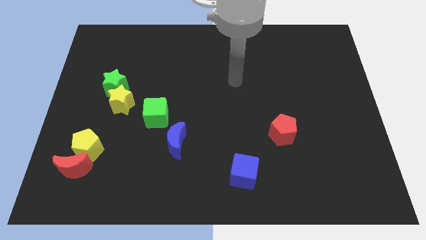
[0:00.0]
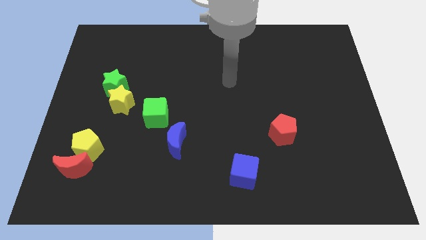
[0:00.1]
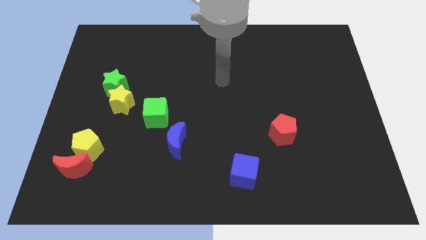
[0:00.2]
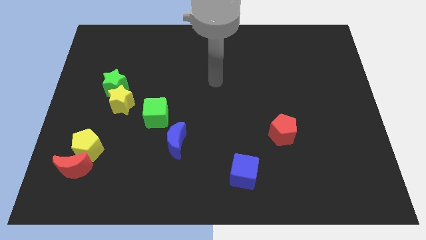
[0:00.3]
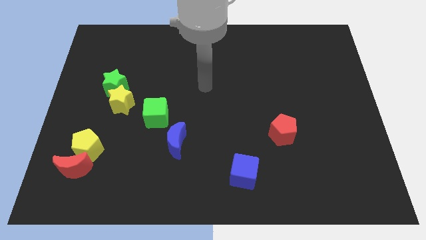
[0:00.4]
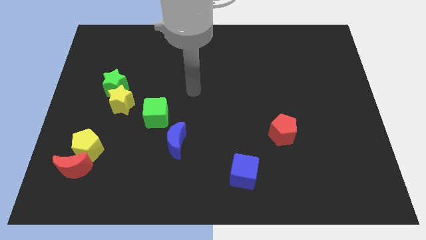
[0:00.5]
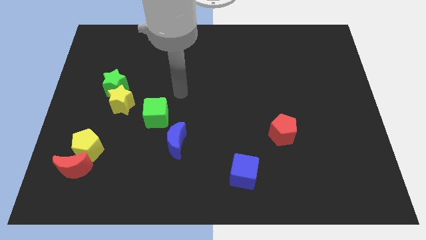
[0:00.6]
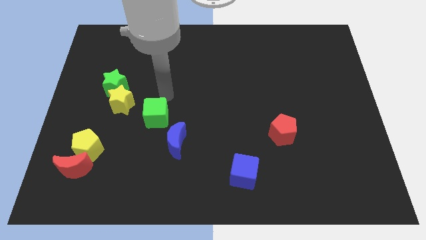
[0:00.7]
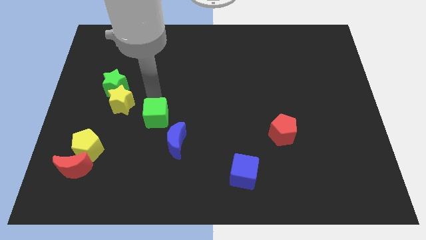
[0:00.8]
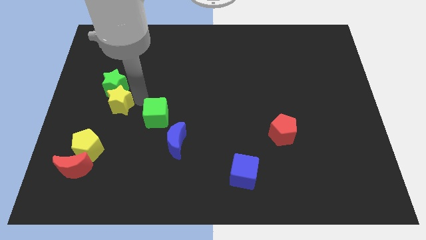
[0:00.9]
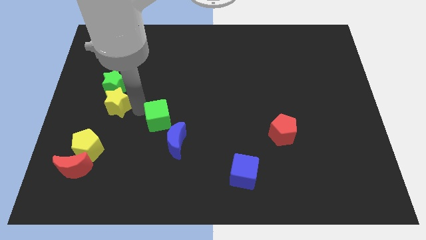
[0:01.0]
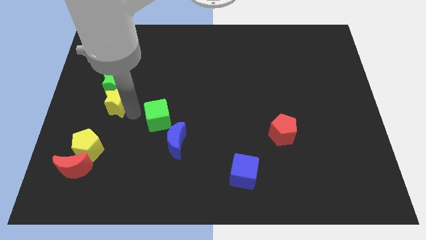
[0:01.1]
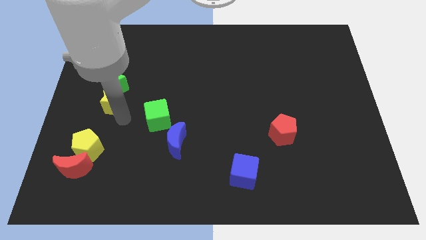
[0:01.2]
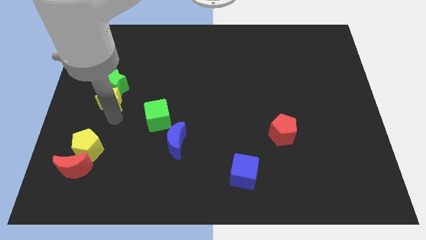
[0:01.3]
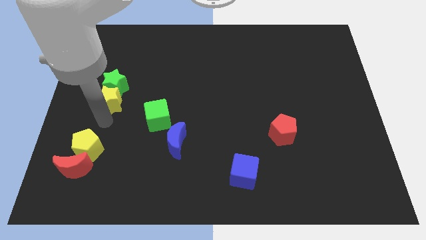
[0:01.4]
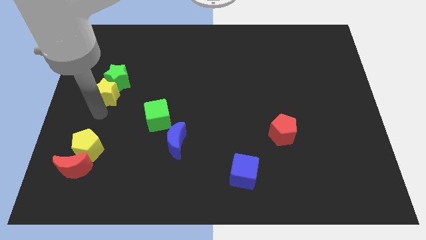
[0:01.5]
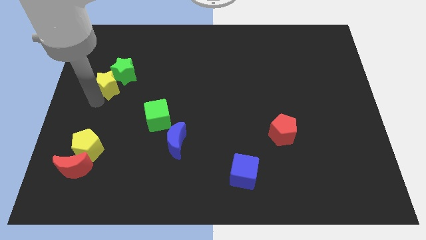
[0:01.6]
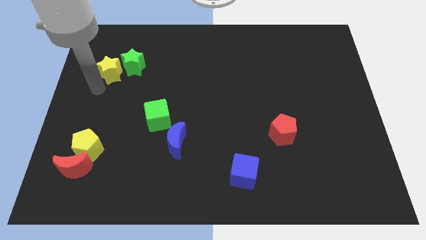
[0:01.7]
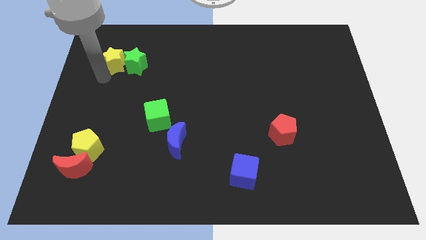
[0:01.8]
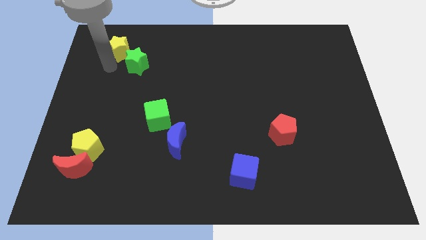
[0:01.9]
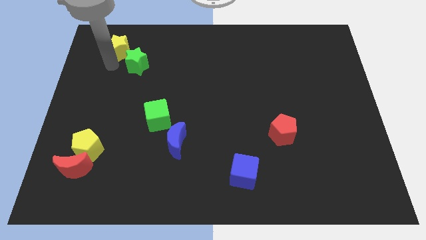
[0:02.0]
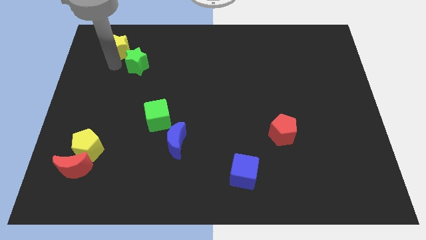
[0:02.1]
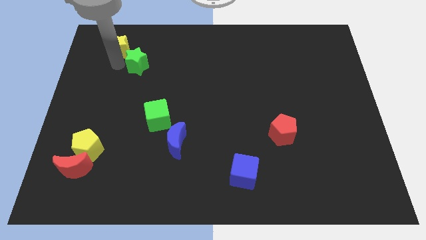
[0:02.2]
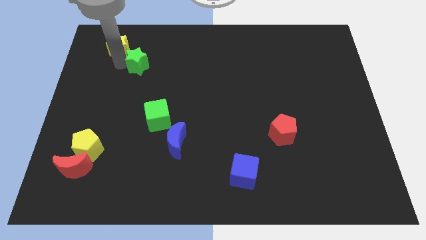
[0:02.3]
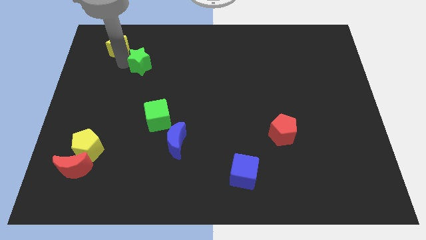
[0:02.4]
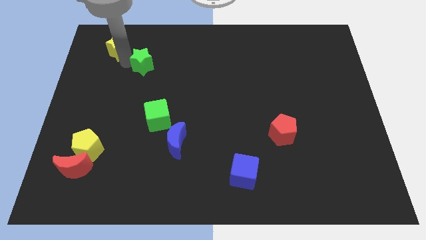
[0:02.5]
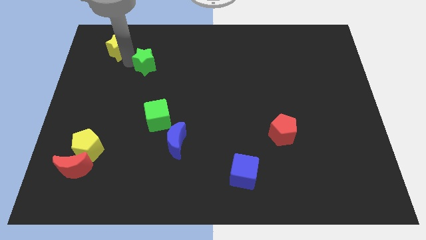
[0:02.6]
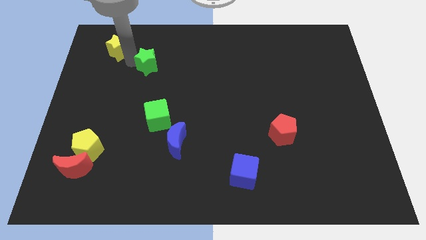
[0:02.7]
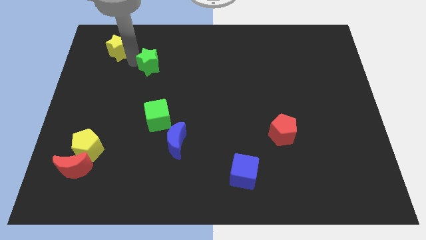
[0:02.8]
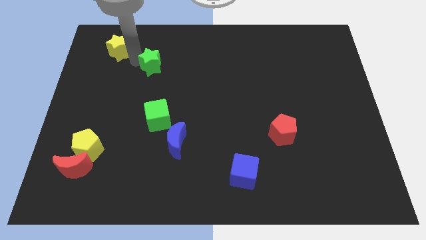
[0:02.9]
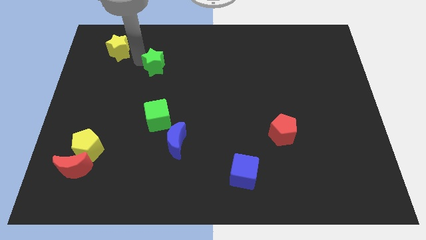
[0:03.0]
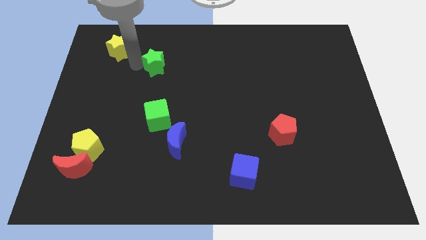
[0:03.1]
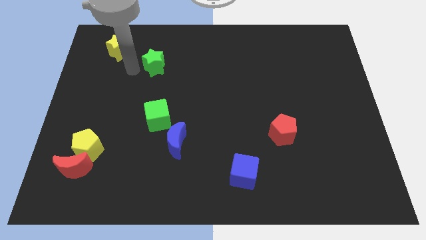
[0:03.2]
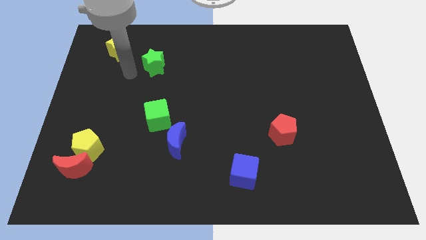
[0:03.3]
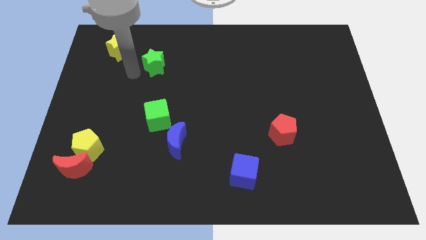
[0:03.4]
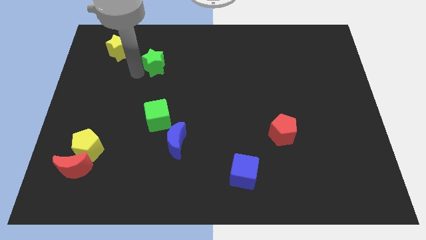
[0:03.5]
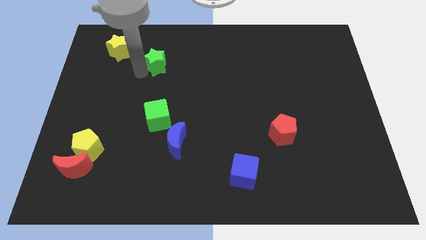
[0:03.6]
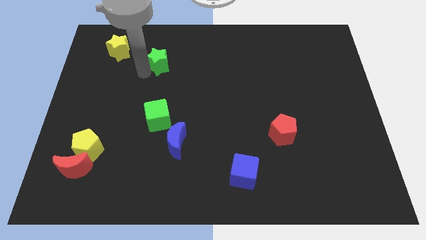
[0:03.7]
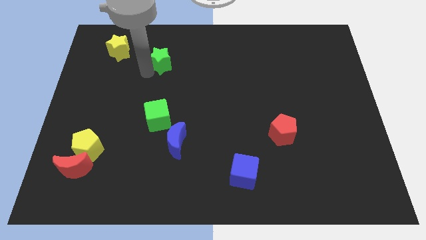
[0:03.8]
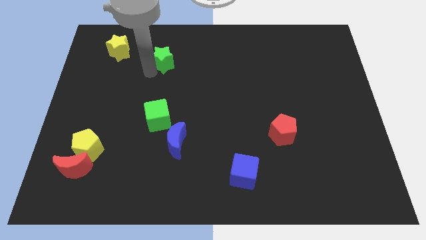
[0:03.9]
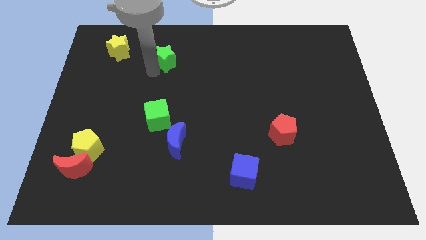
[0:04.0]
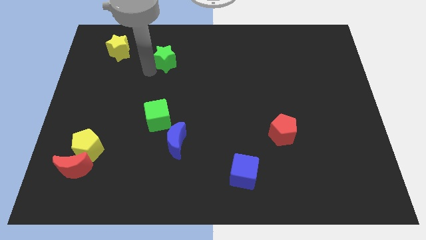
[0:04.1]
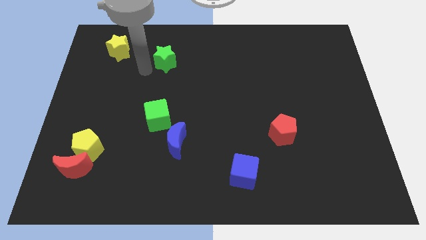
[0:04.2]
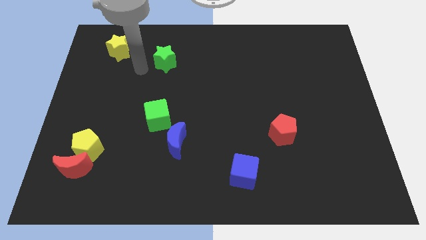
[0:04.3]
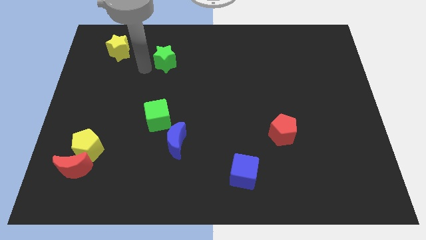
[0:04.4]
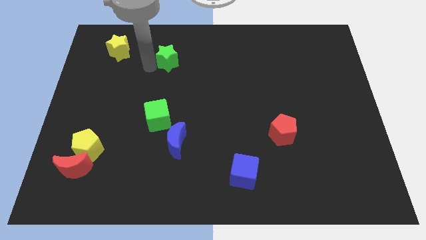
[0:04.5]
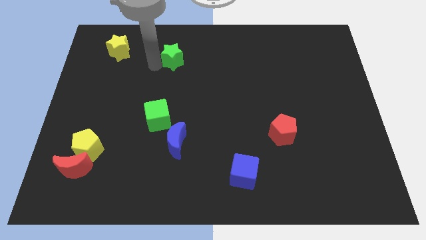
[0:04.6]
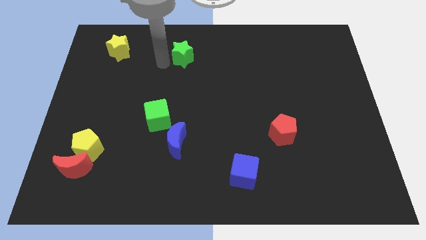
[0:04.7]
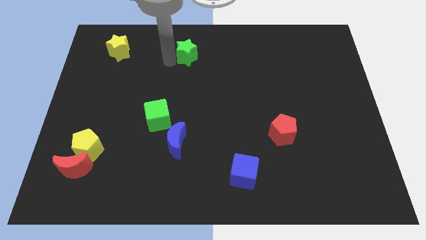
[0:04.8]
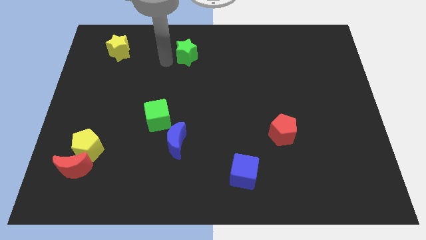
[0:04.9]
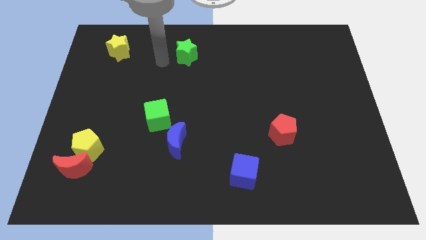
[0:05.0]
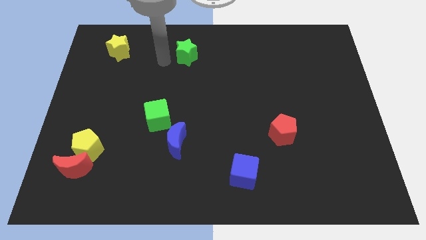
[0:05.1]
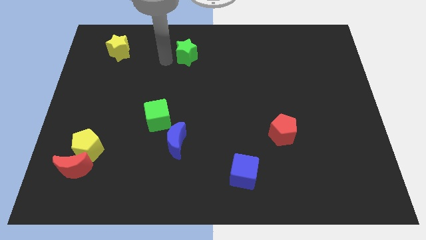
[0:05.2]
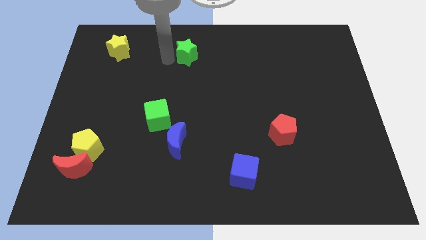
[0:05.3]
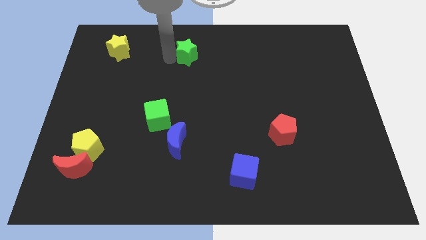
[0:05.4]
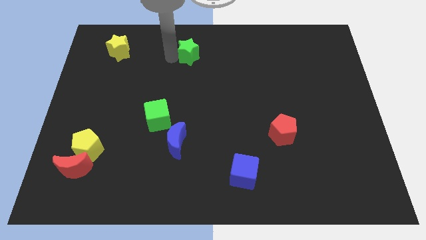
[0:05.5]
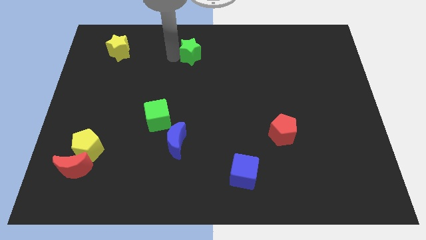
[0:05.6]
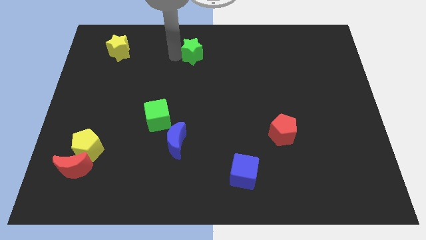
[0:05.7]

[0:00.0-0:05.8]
push the green star to the towards your base

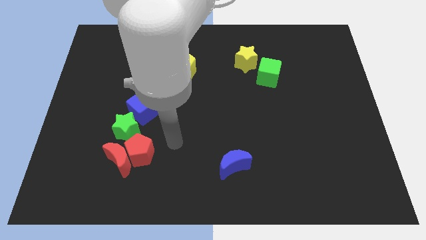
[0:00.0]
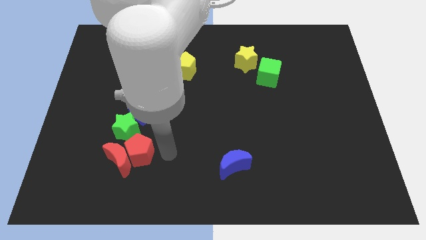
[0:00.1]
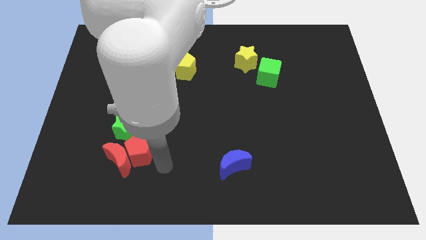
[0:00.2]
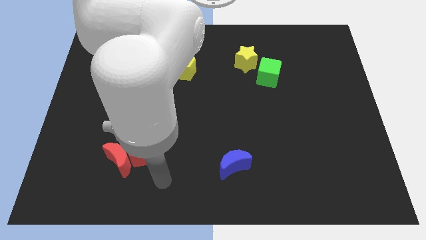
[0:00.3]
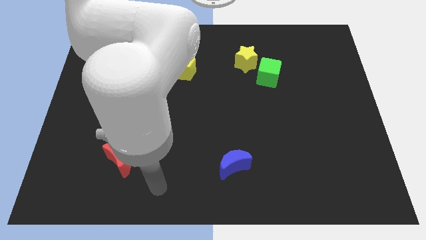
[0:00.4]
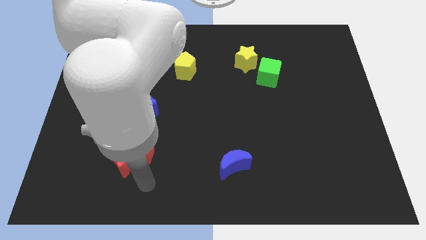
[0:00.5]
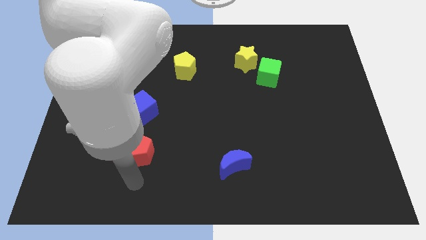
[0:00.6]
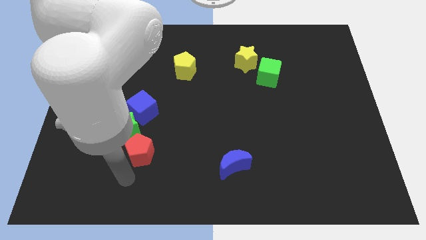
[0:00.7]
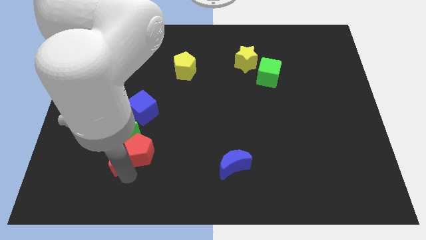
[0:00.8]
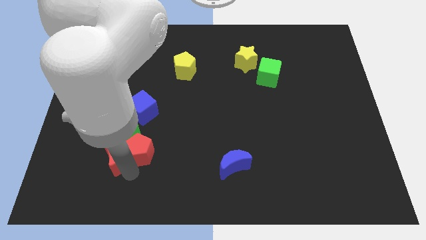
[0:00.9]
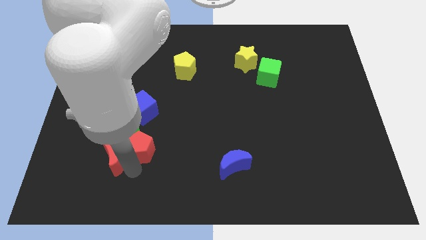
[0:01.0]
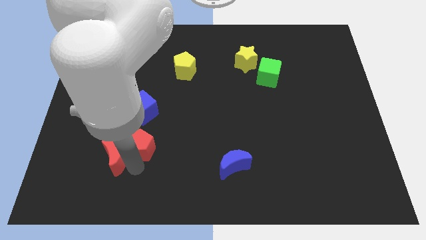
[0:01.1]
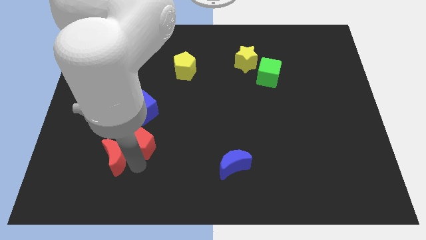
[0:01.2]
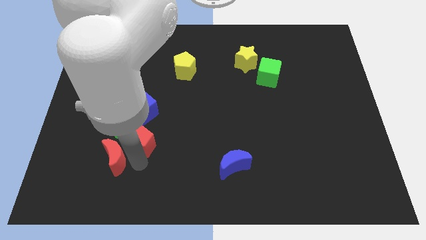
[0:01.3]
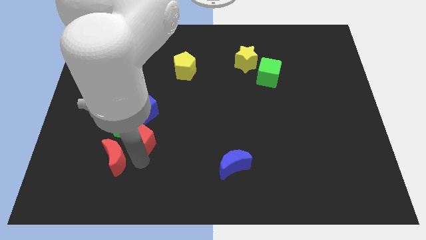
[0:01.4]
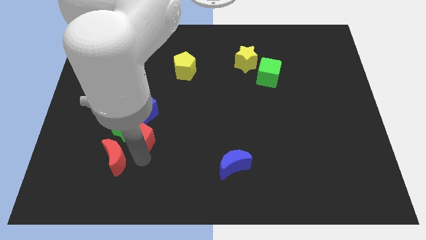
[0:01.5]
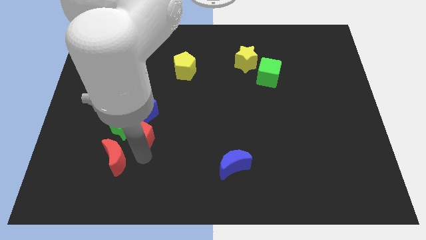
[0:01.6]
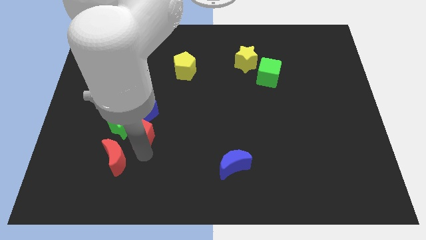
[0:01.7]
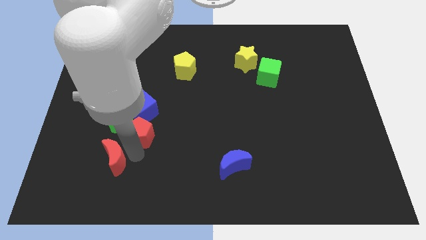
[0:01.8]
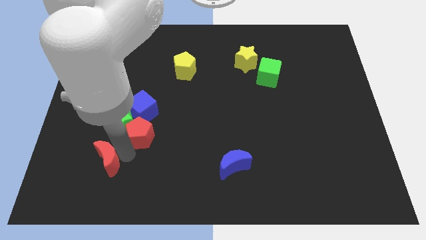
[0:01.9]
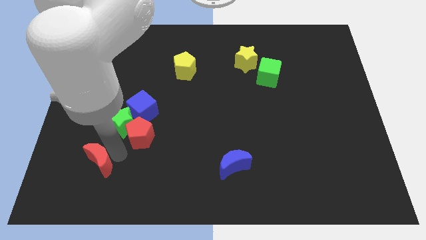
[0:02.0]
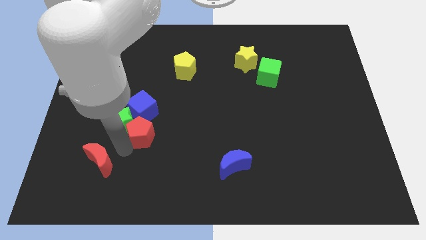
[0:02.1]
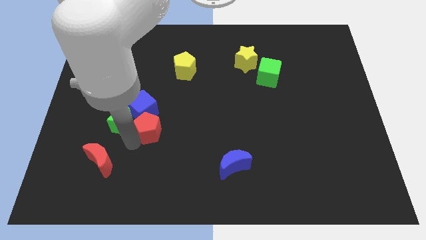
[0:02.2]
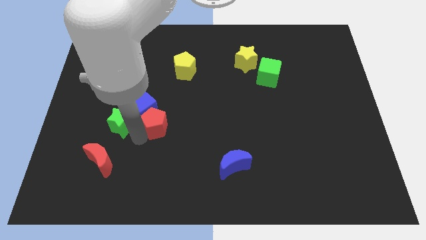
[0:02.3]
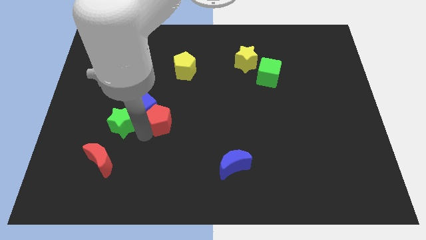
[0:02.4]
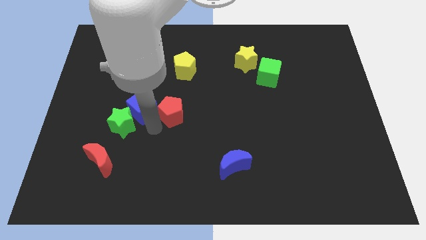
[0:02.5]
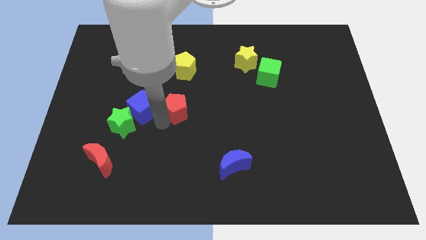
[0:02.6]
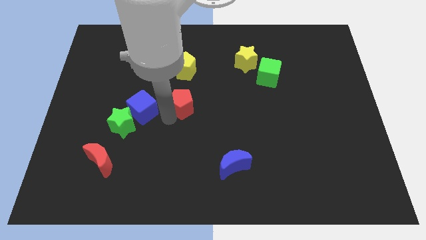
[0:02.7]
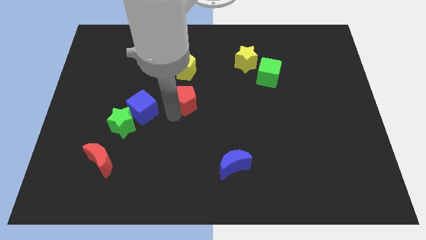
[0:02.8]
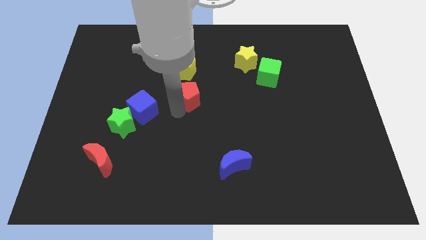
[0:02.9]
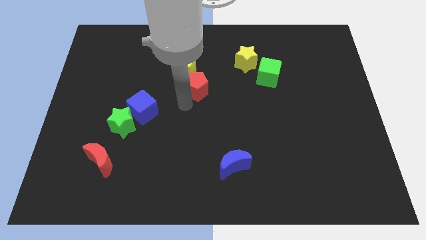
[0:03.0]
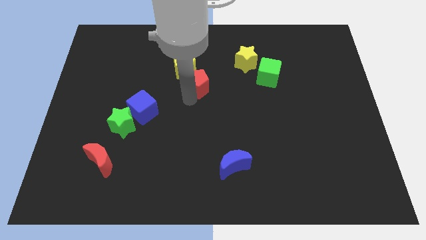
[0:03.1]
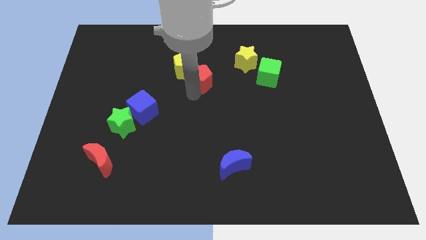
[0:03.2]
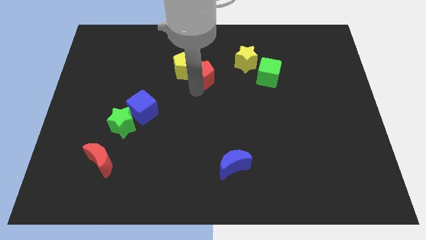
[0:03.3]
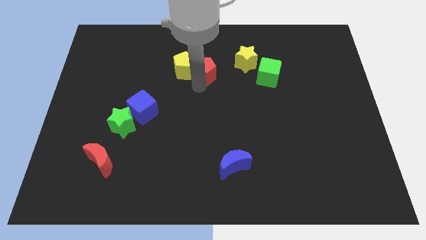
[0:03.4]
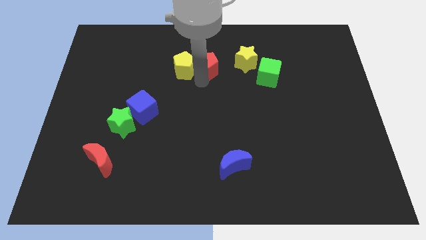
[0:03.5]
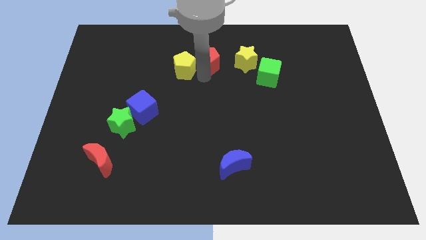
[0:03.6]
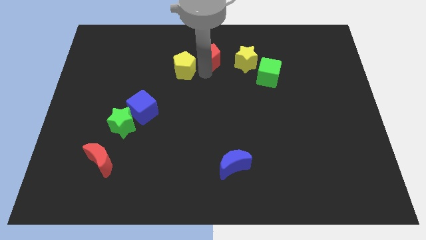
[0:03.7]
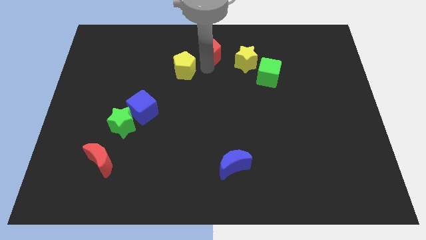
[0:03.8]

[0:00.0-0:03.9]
push the red pentagon to the top side
